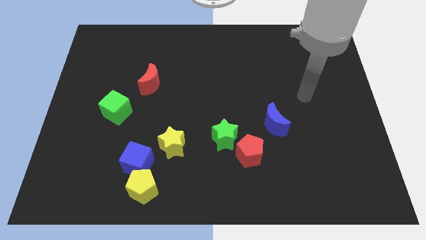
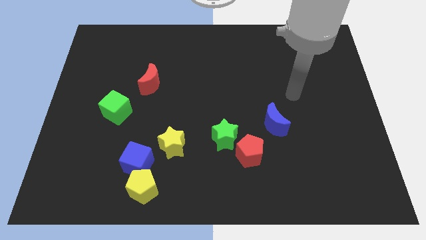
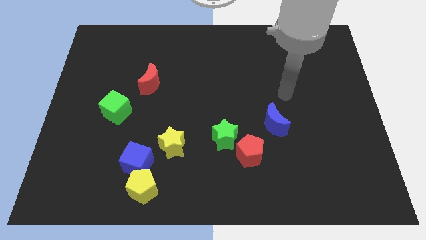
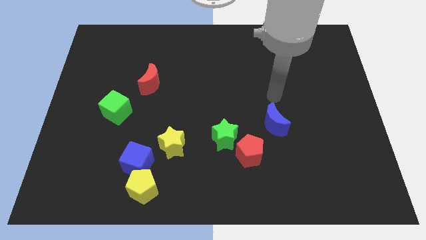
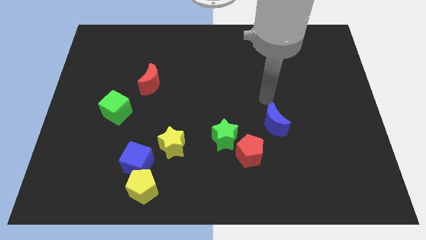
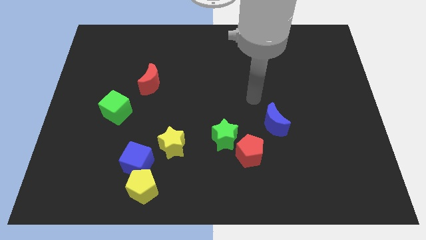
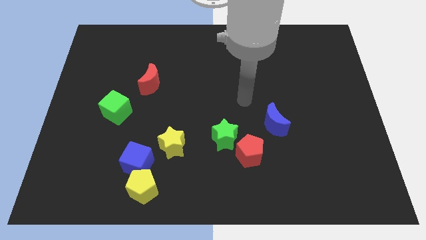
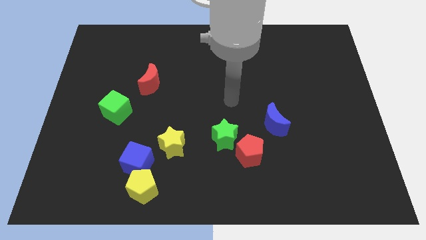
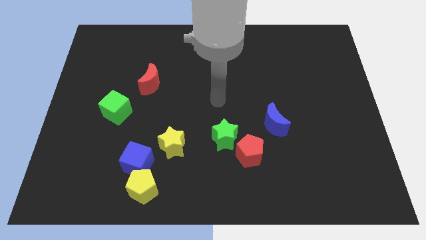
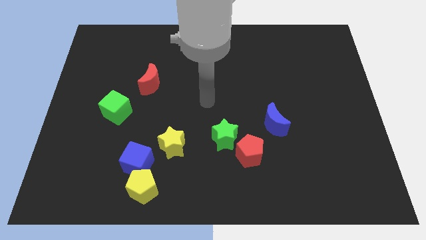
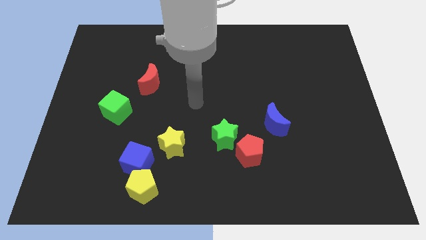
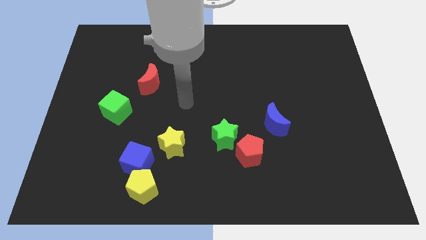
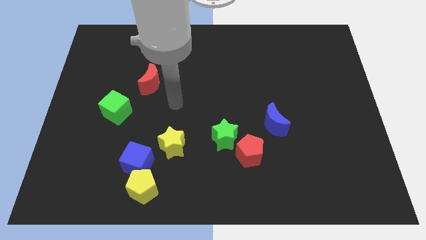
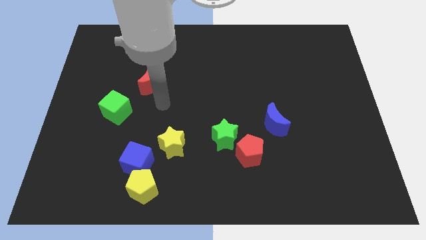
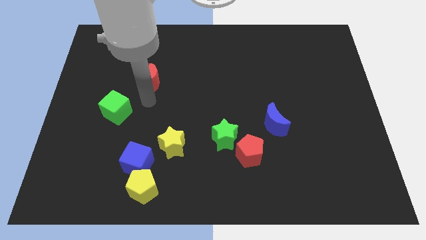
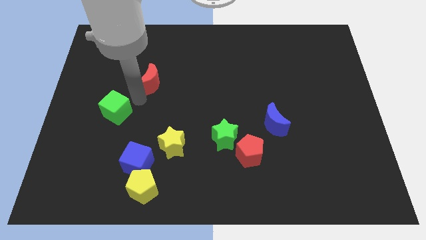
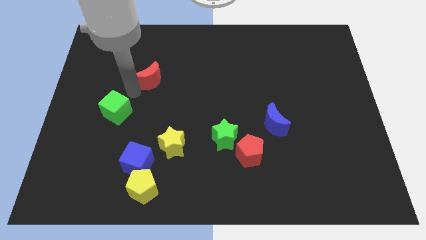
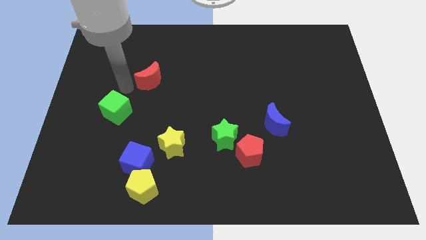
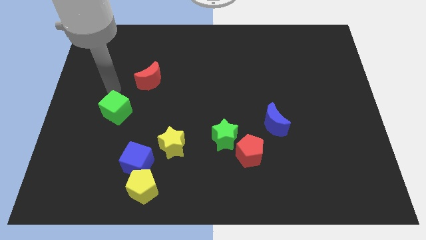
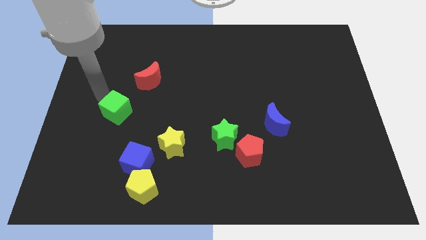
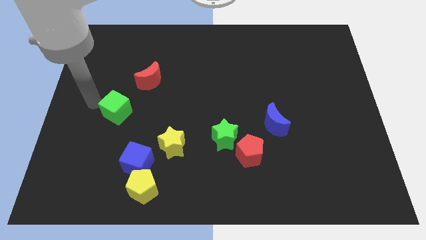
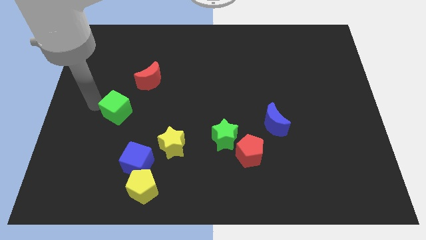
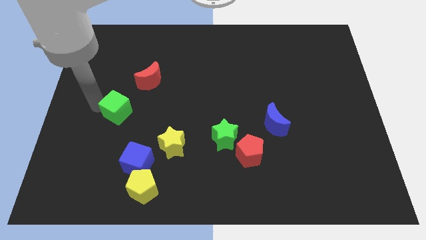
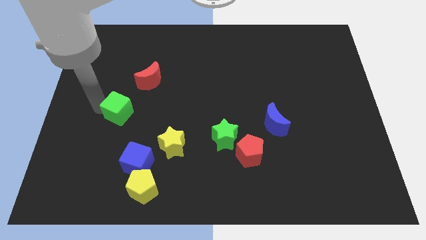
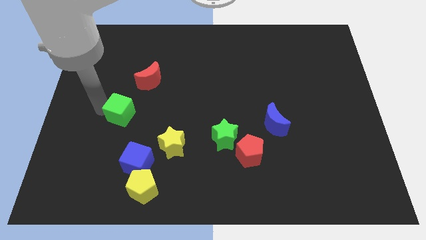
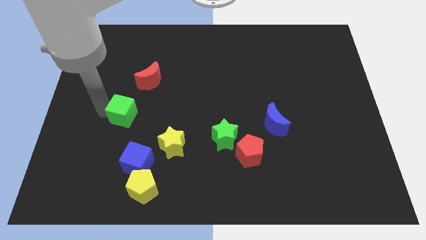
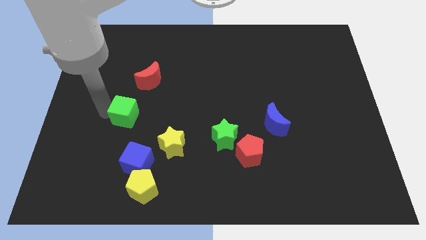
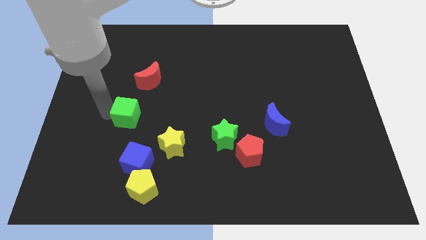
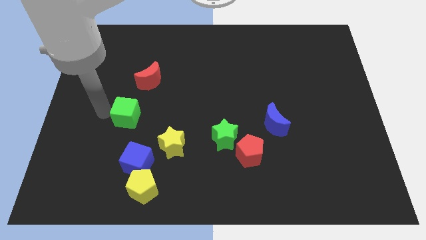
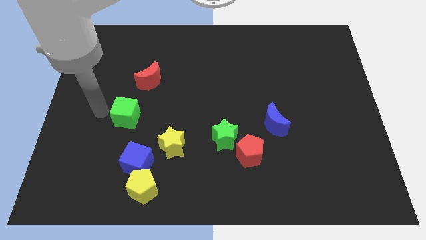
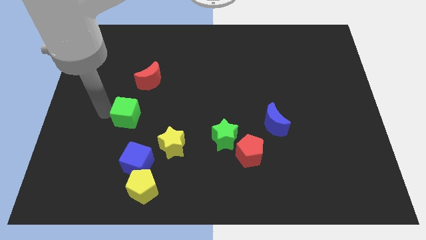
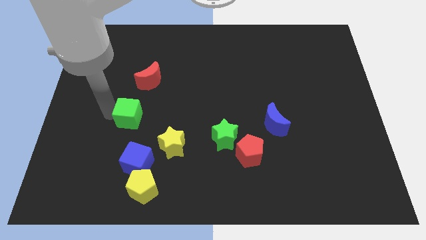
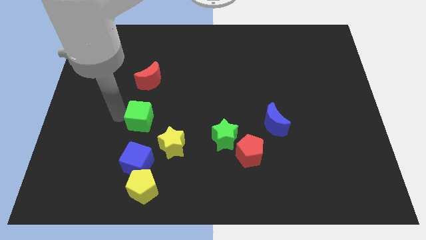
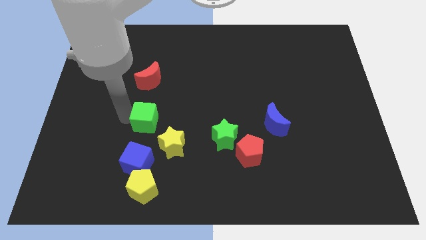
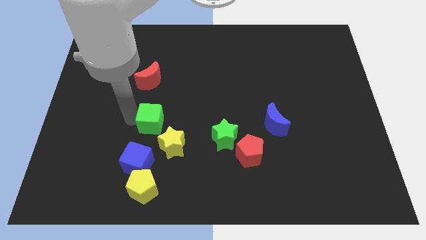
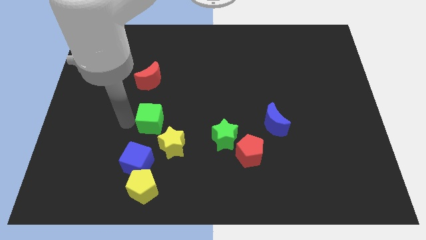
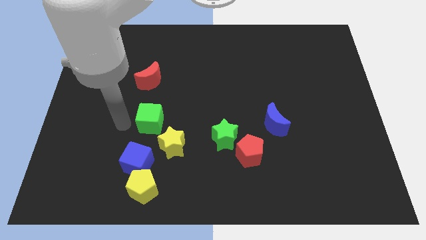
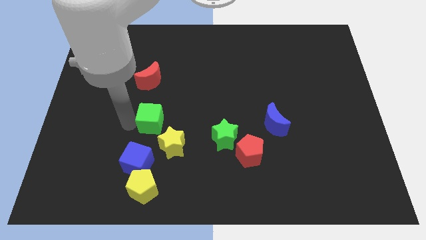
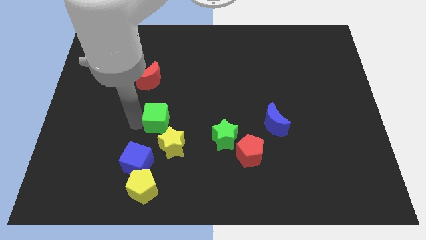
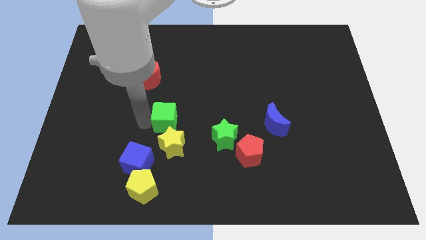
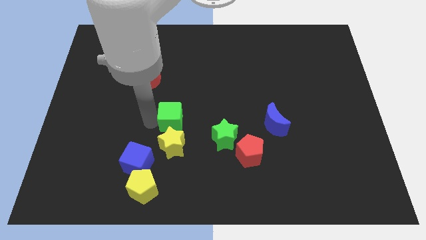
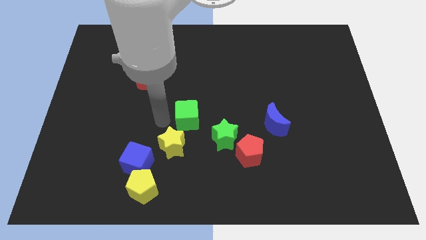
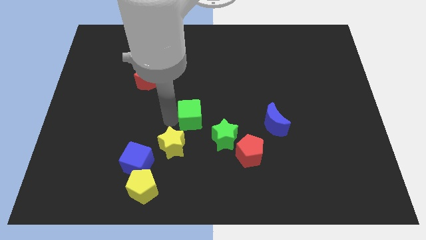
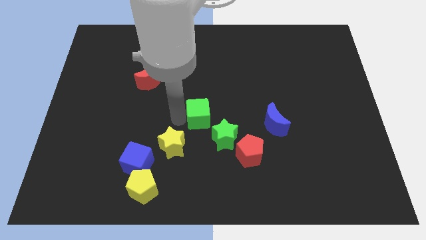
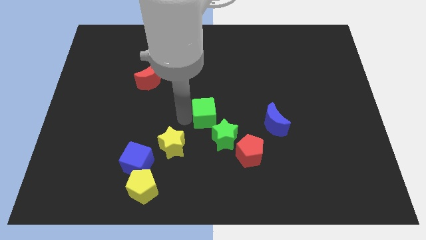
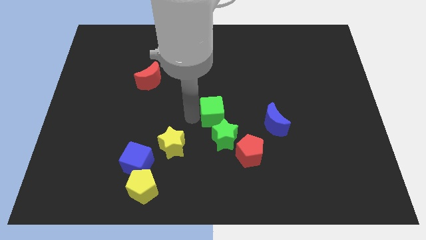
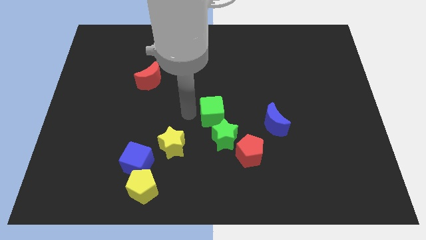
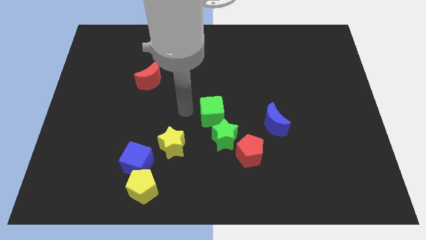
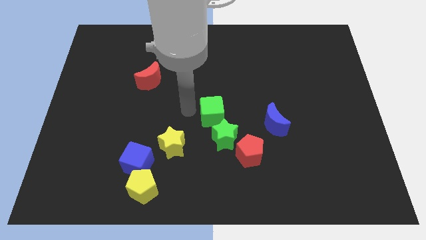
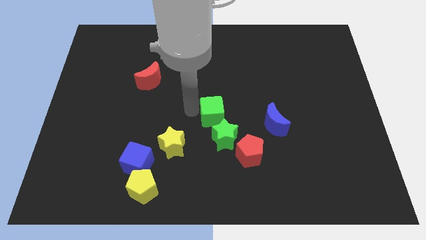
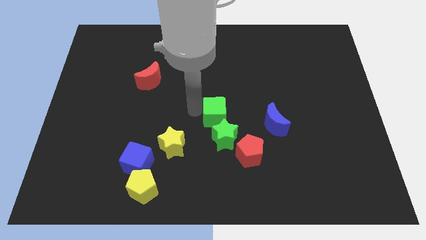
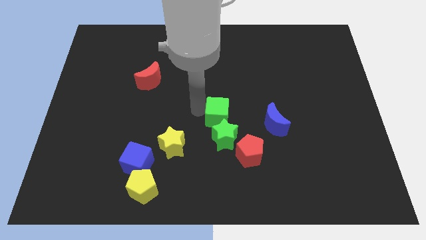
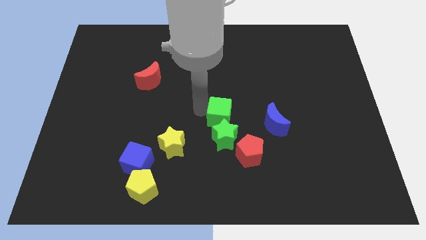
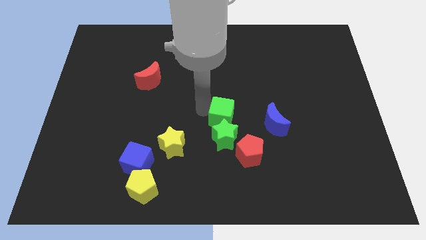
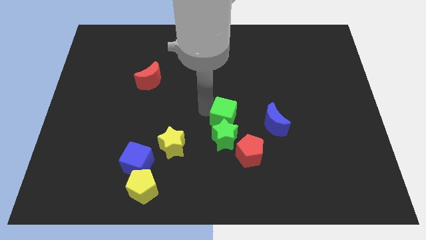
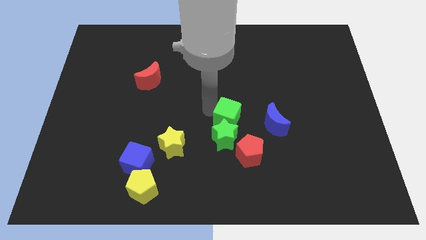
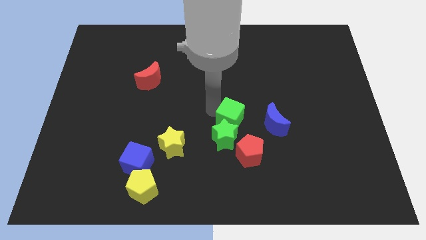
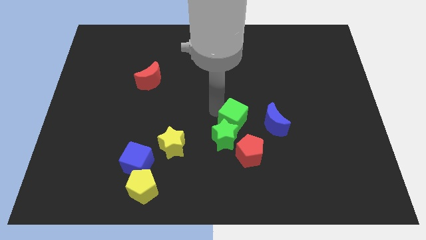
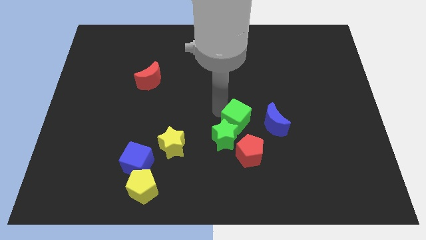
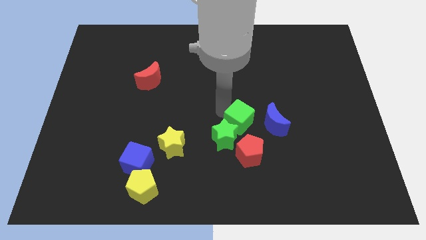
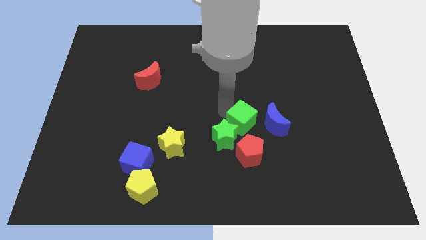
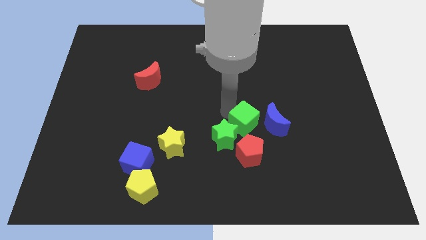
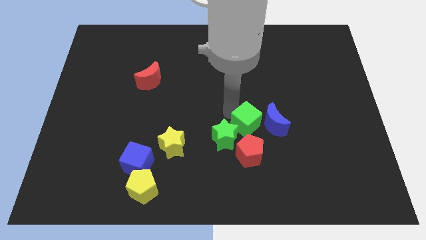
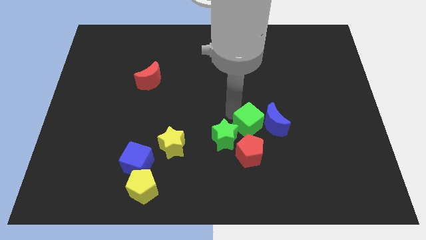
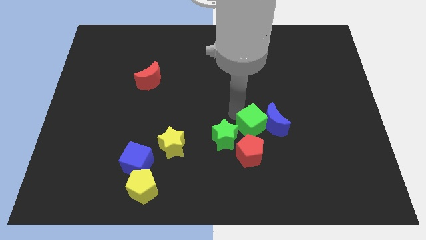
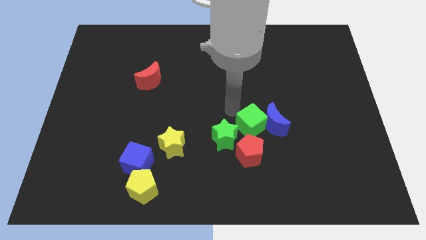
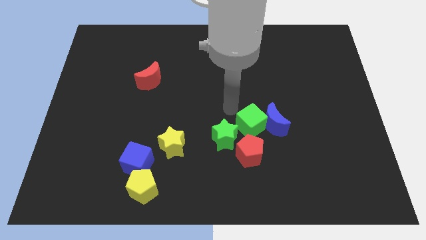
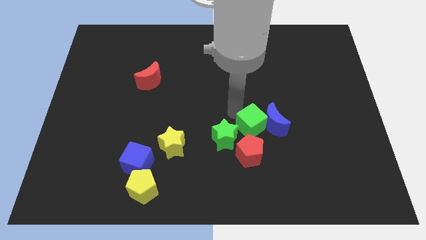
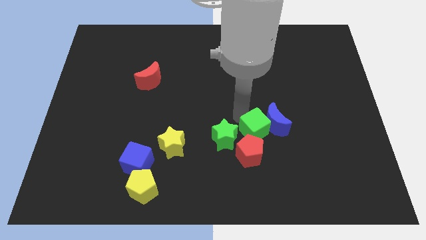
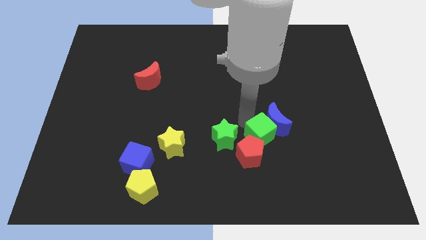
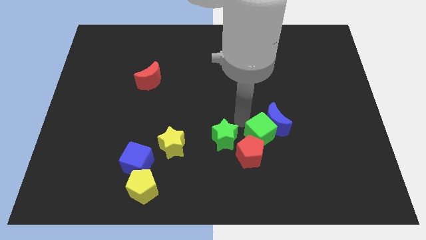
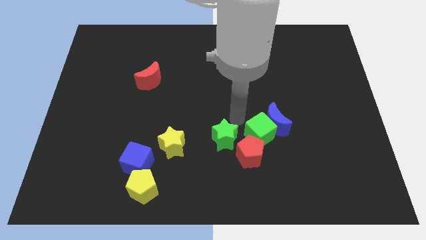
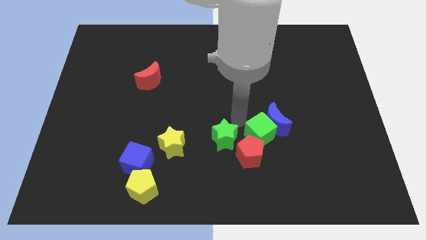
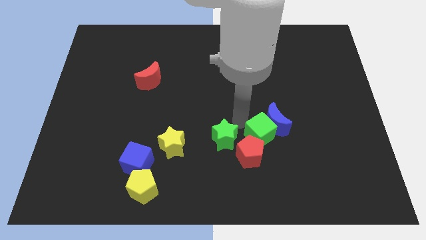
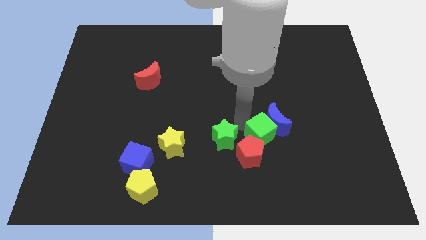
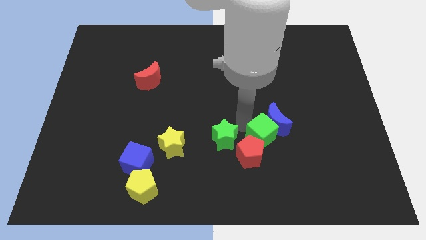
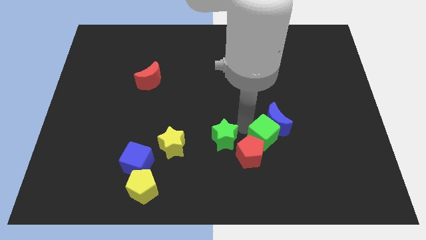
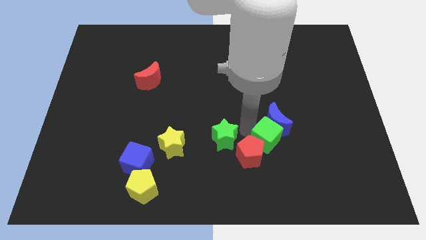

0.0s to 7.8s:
slide the green cube to the right of the red pentagon

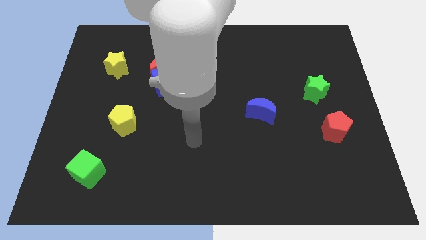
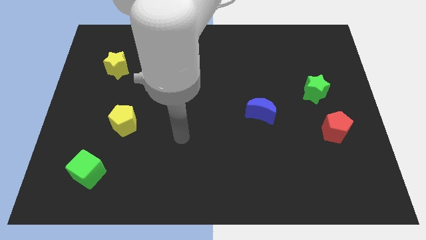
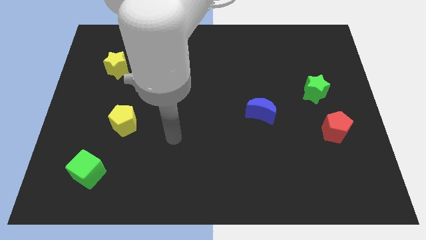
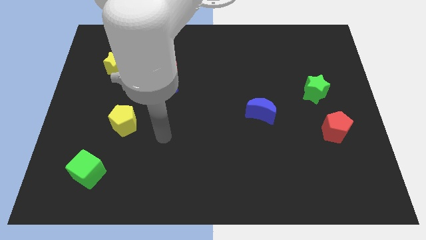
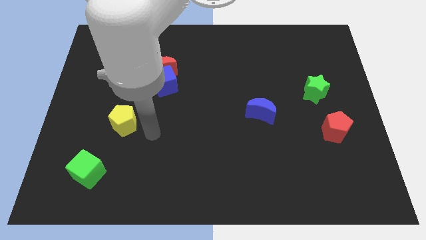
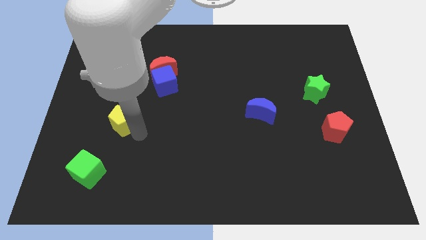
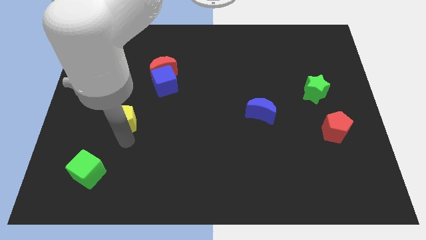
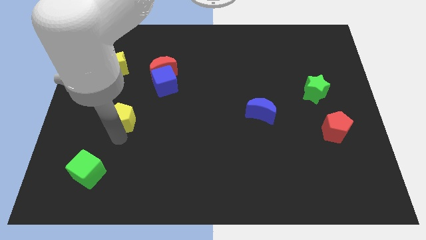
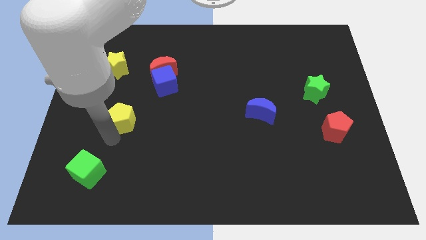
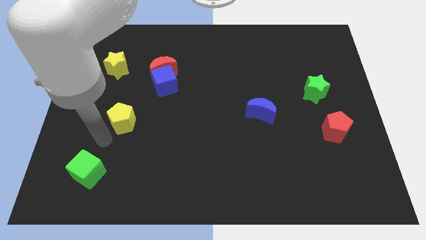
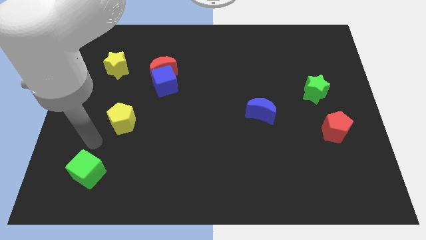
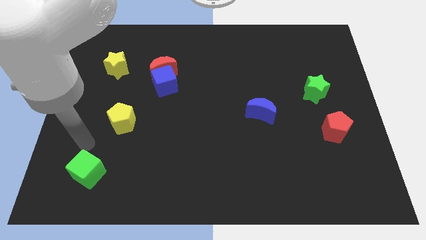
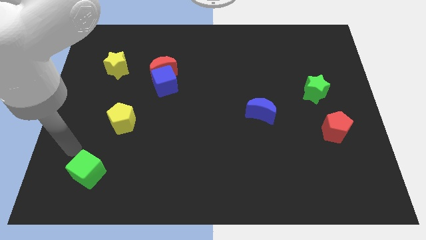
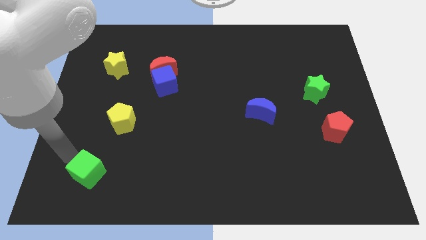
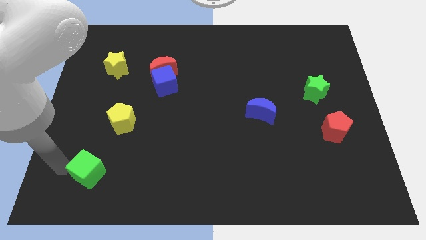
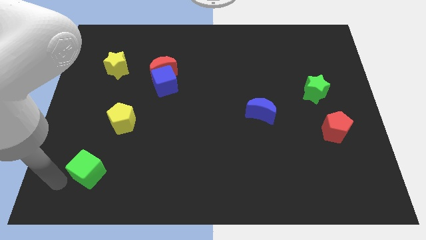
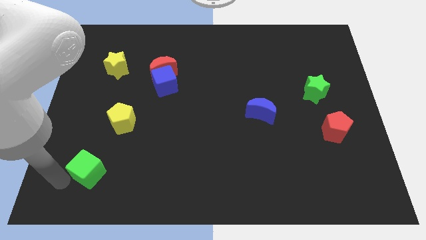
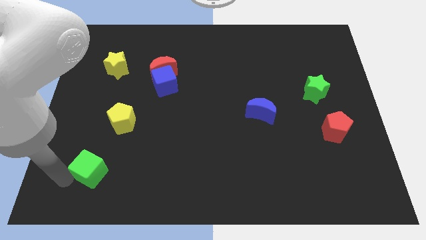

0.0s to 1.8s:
put the green cube to the bottom of the yellow pentagon
